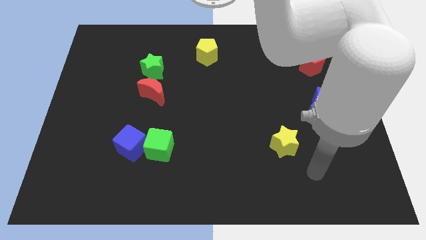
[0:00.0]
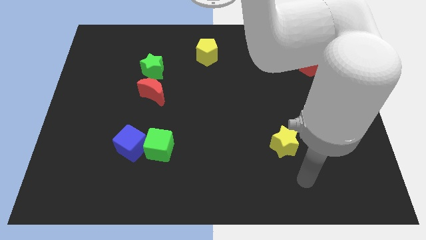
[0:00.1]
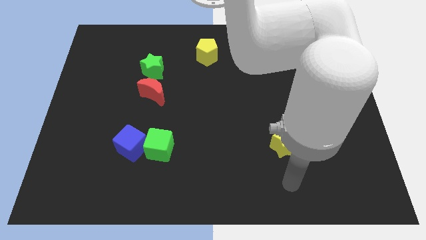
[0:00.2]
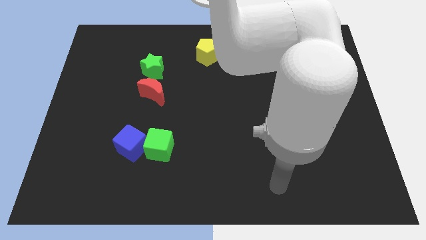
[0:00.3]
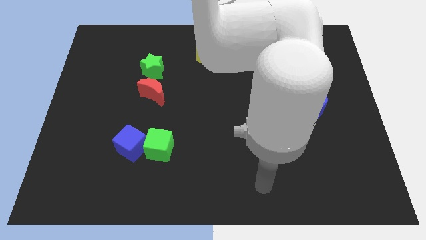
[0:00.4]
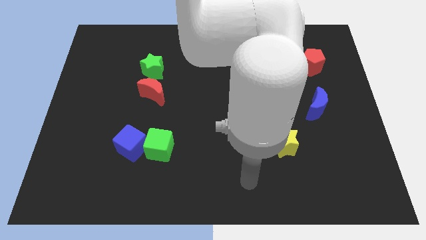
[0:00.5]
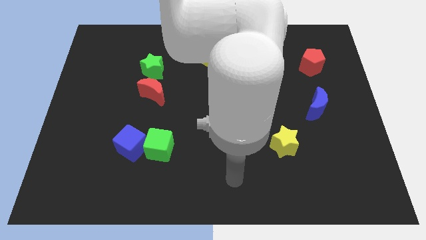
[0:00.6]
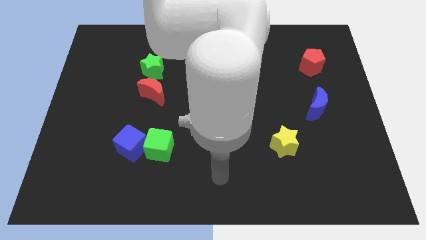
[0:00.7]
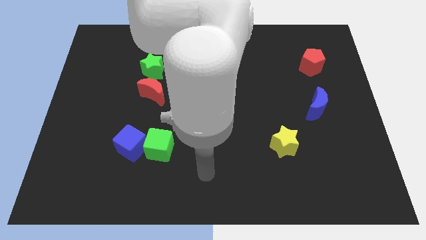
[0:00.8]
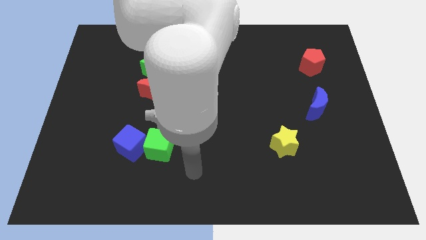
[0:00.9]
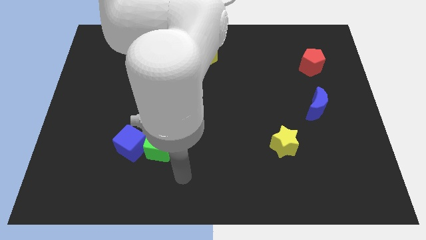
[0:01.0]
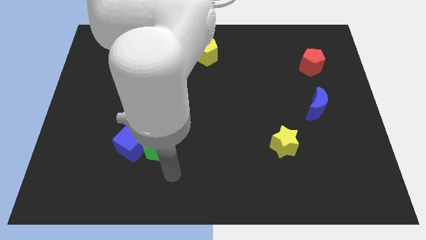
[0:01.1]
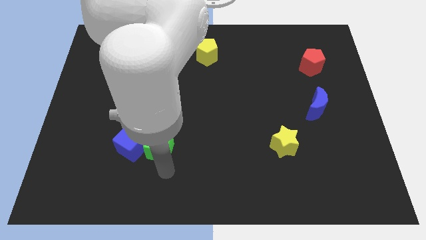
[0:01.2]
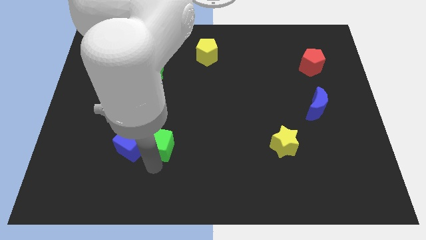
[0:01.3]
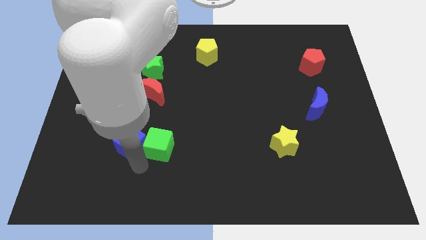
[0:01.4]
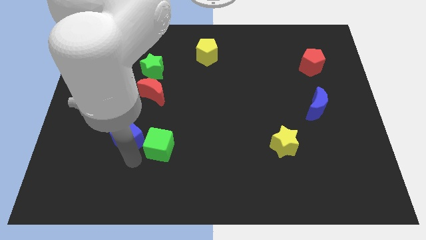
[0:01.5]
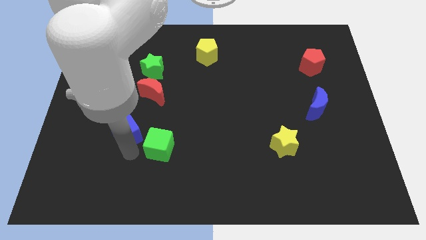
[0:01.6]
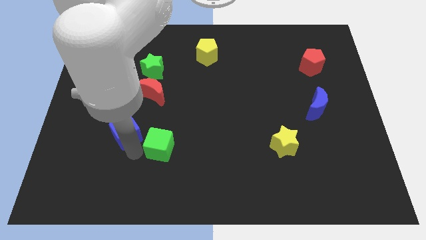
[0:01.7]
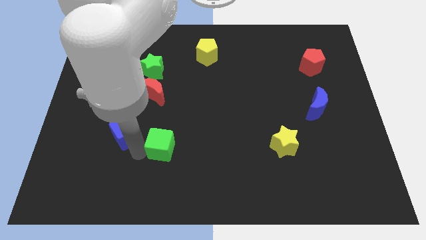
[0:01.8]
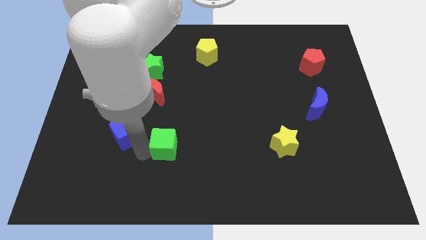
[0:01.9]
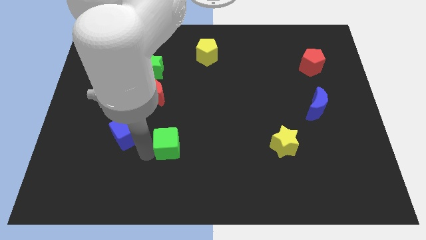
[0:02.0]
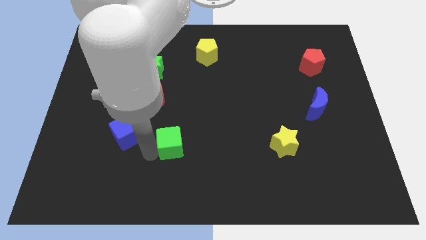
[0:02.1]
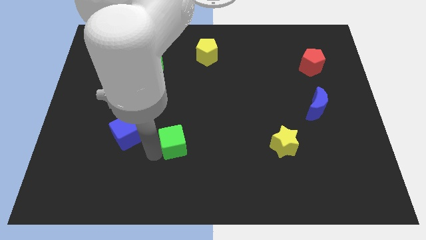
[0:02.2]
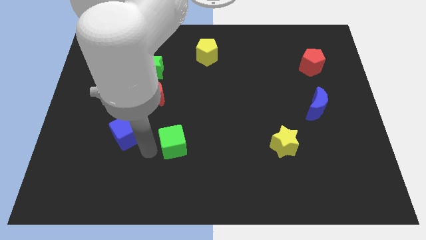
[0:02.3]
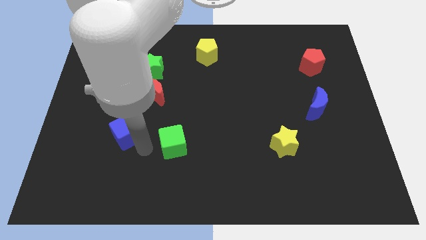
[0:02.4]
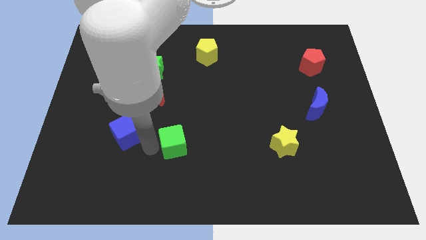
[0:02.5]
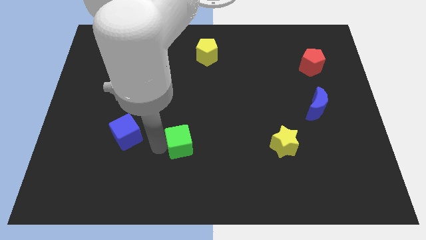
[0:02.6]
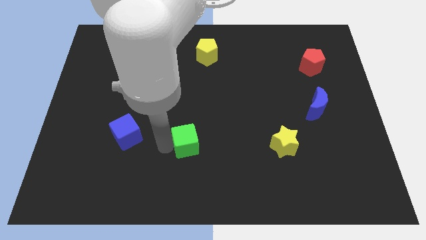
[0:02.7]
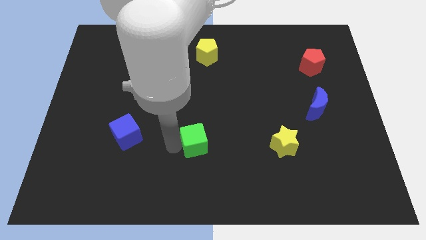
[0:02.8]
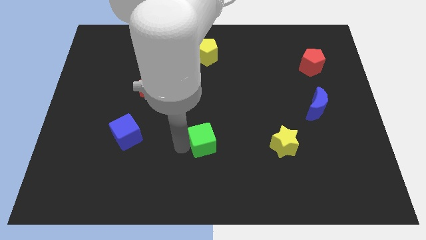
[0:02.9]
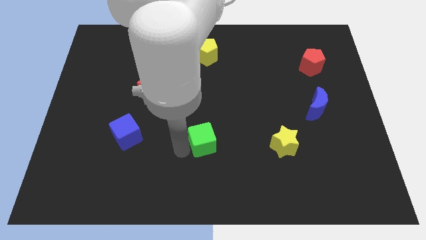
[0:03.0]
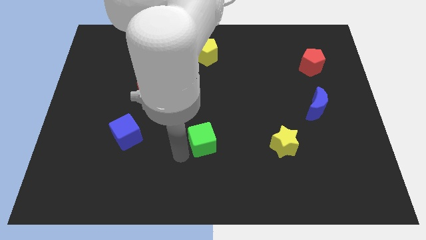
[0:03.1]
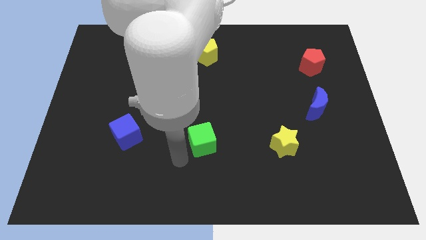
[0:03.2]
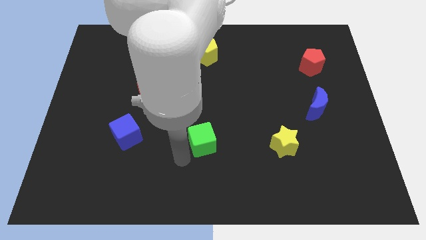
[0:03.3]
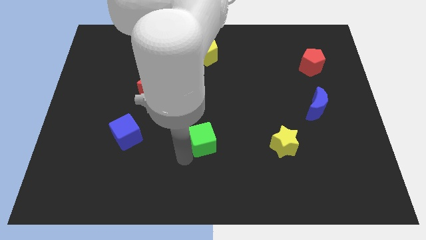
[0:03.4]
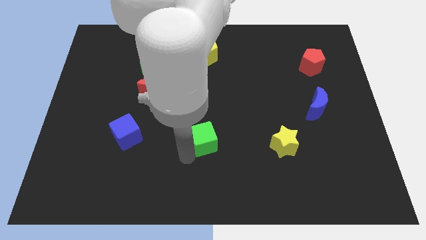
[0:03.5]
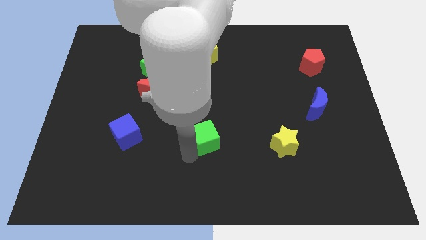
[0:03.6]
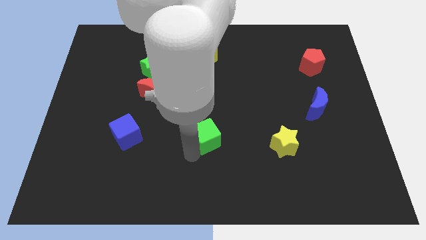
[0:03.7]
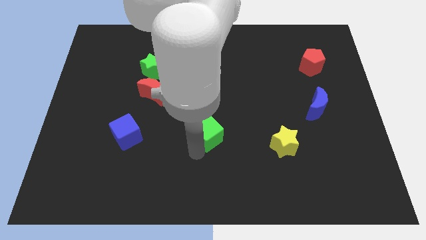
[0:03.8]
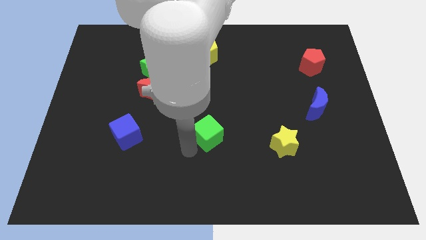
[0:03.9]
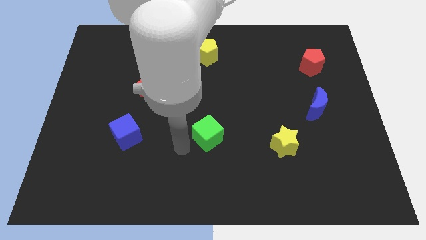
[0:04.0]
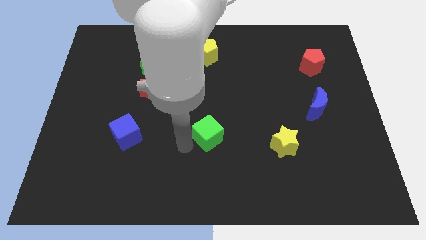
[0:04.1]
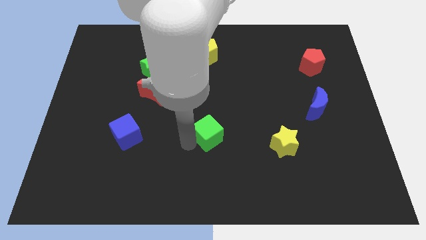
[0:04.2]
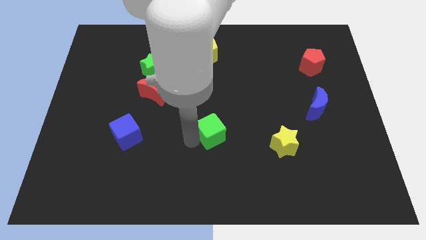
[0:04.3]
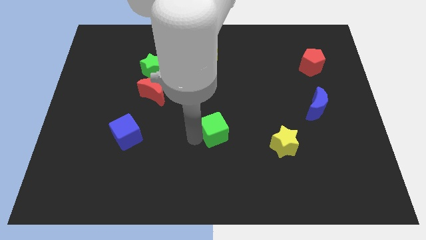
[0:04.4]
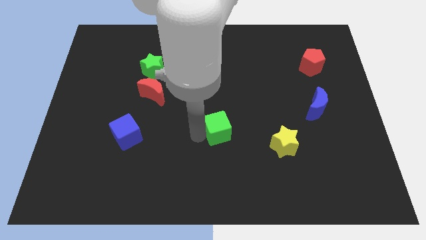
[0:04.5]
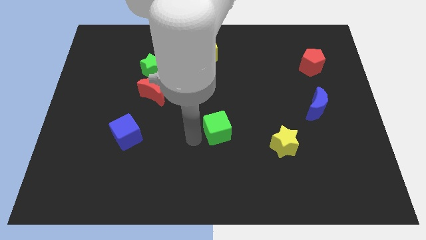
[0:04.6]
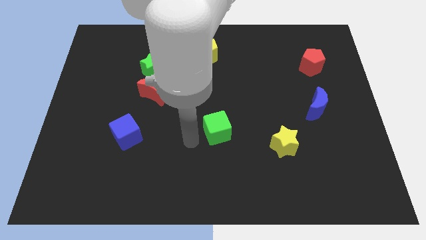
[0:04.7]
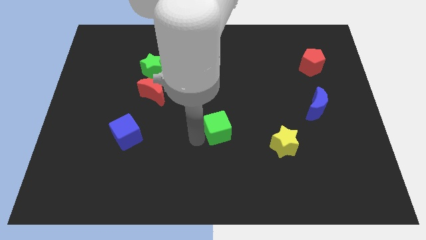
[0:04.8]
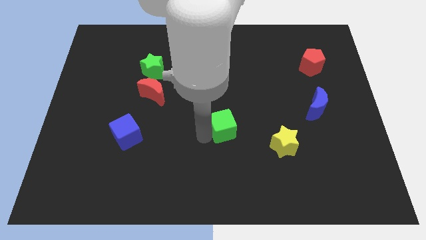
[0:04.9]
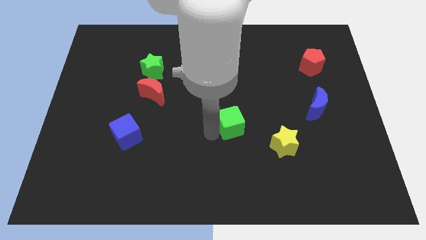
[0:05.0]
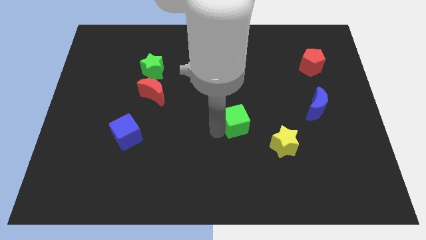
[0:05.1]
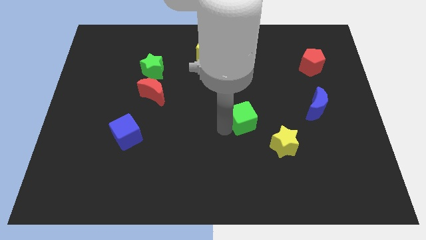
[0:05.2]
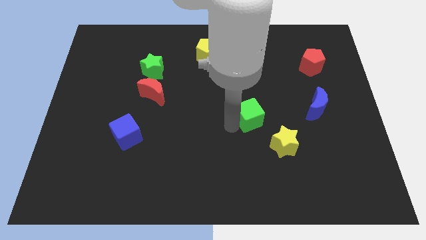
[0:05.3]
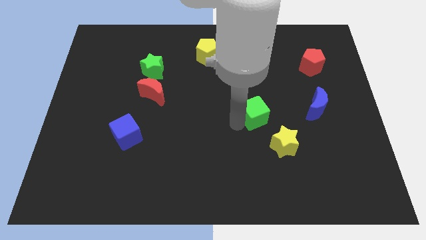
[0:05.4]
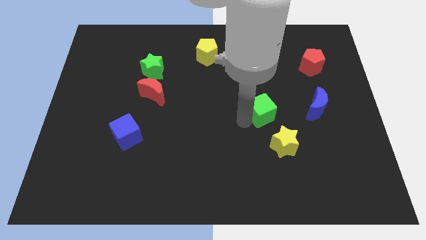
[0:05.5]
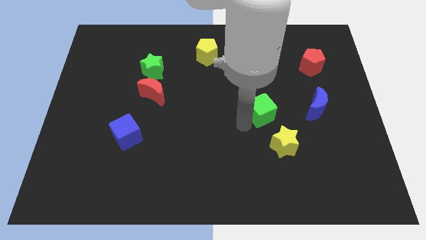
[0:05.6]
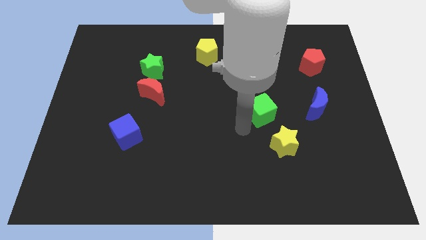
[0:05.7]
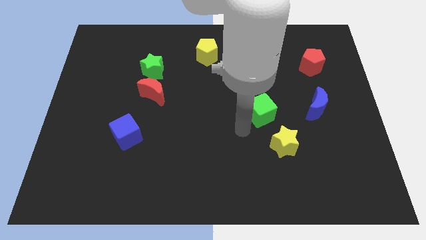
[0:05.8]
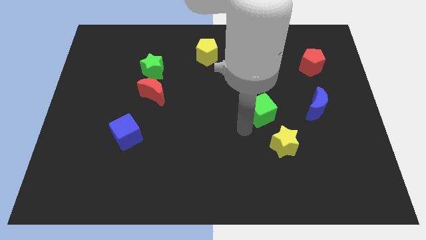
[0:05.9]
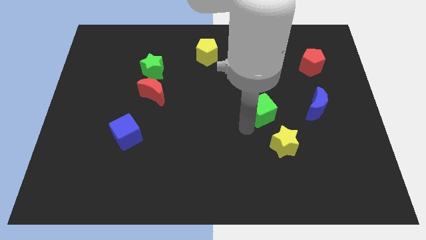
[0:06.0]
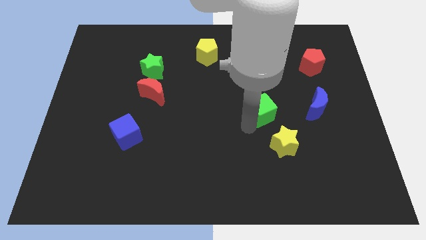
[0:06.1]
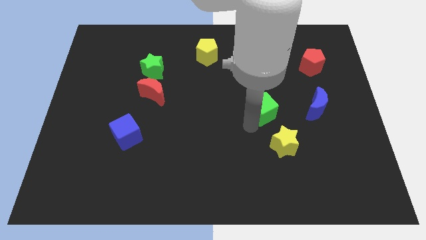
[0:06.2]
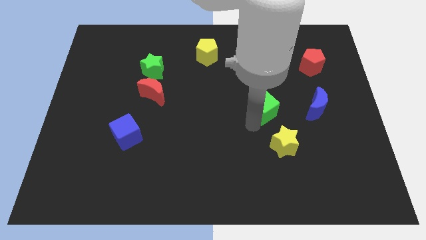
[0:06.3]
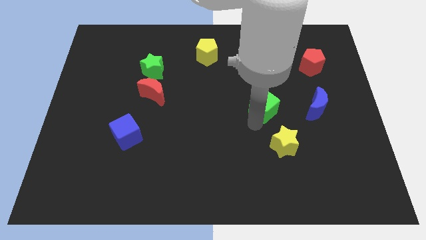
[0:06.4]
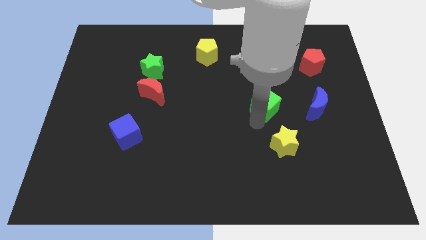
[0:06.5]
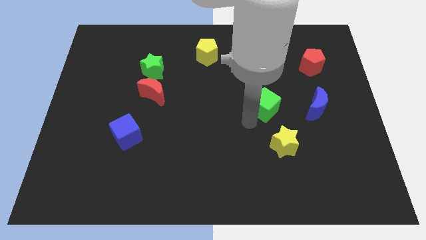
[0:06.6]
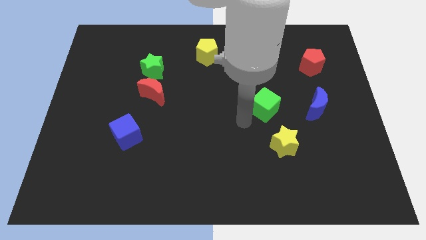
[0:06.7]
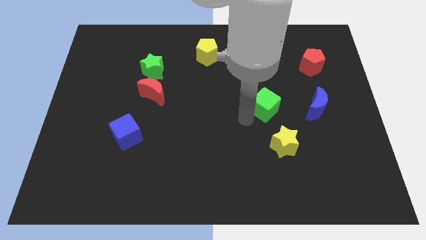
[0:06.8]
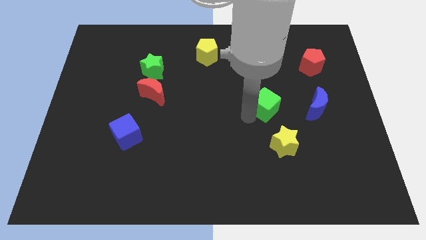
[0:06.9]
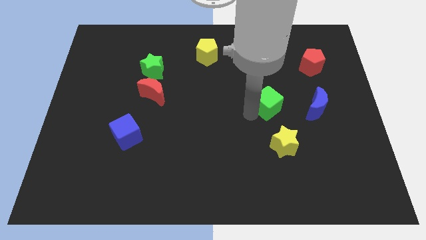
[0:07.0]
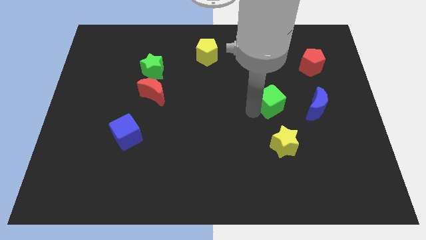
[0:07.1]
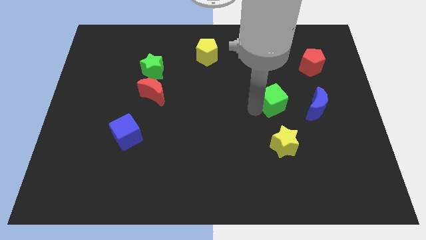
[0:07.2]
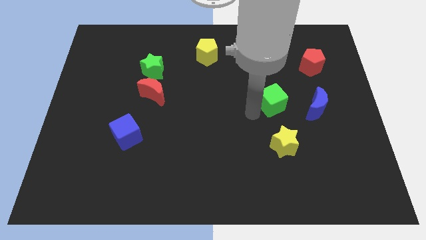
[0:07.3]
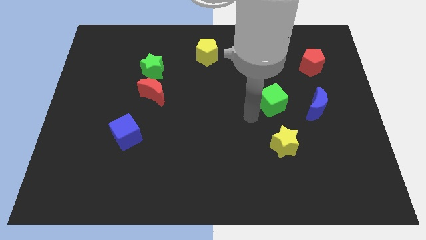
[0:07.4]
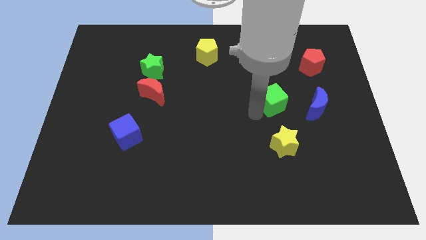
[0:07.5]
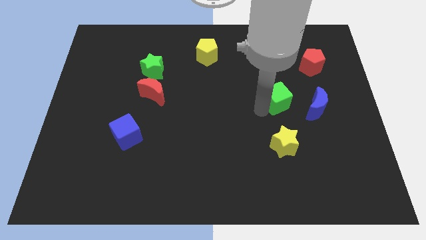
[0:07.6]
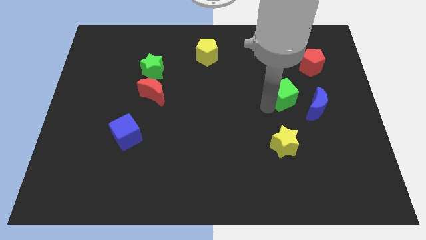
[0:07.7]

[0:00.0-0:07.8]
put the green cube to the top left side of the blue moon
